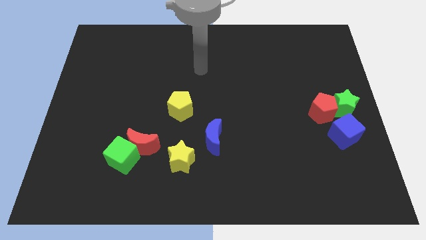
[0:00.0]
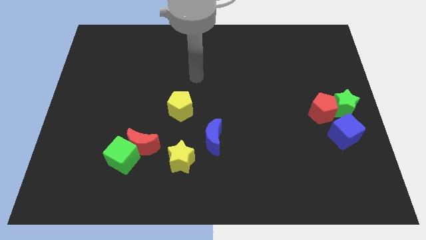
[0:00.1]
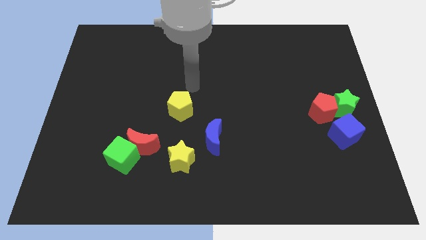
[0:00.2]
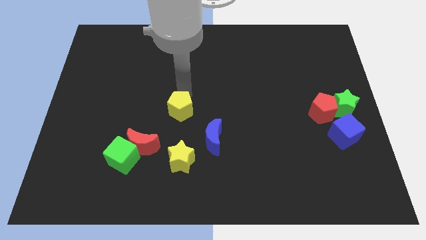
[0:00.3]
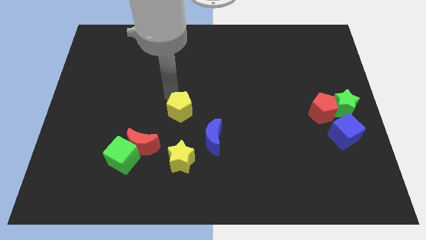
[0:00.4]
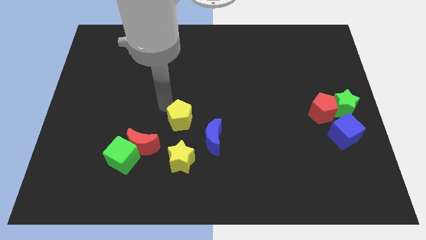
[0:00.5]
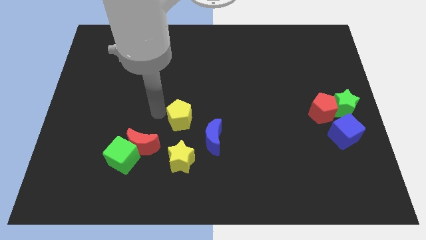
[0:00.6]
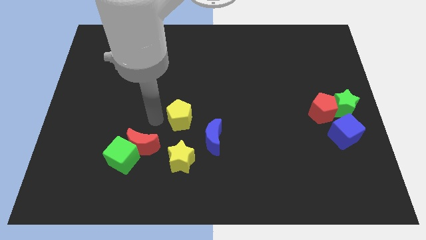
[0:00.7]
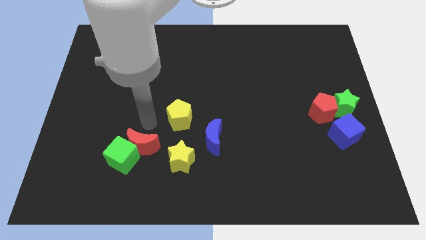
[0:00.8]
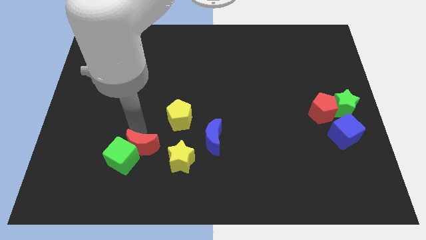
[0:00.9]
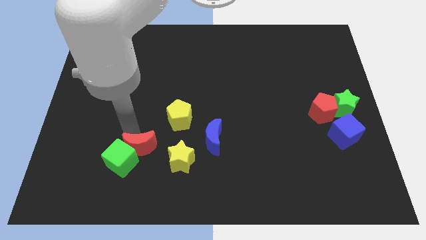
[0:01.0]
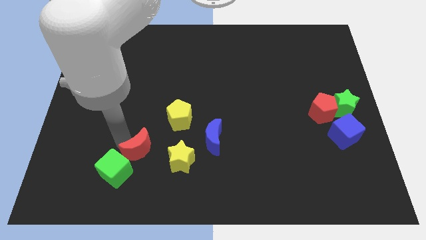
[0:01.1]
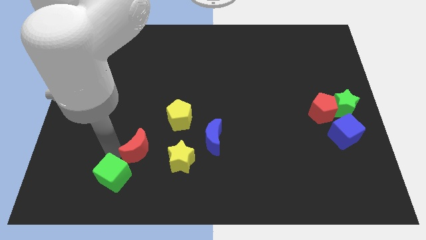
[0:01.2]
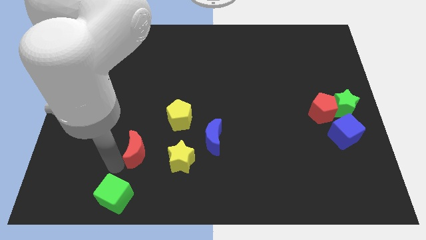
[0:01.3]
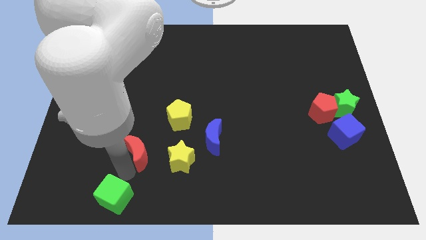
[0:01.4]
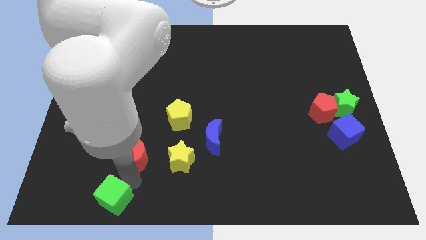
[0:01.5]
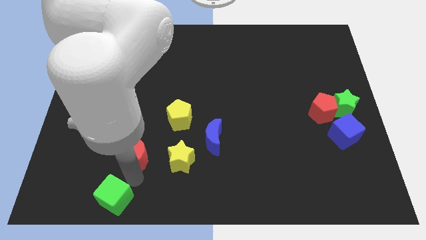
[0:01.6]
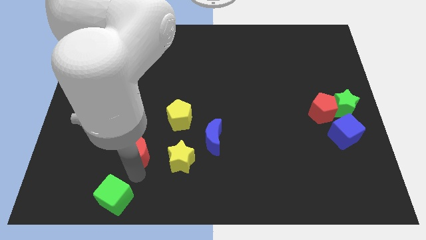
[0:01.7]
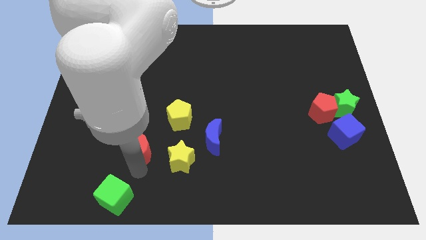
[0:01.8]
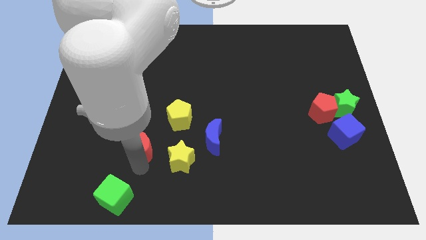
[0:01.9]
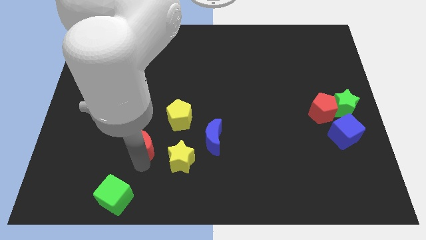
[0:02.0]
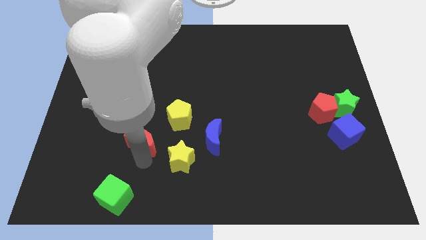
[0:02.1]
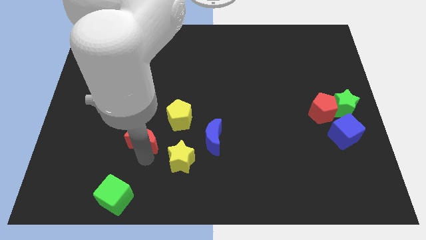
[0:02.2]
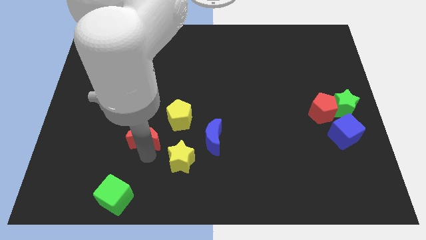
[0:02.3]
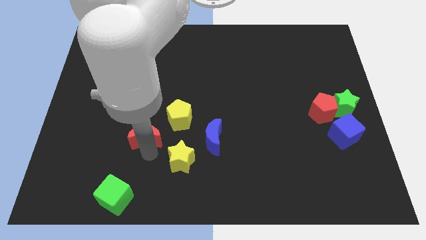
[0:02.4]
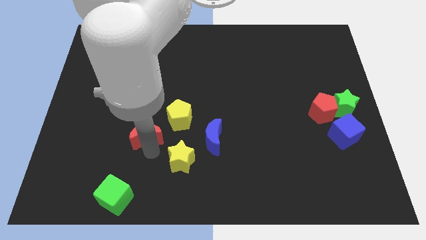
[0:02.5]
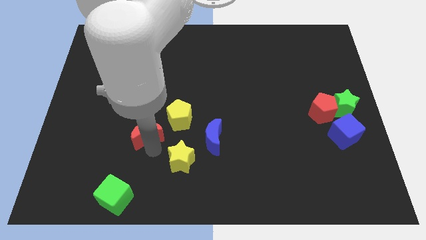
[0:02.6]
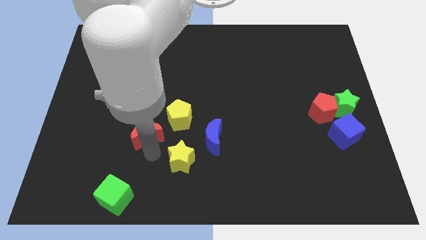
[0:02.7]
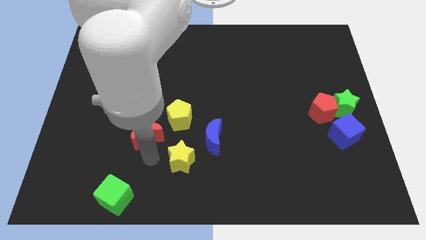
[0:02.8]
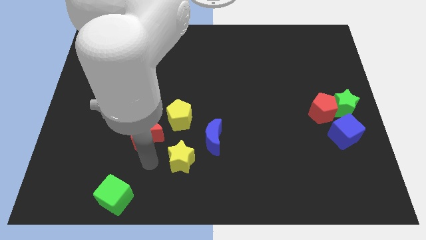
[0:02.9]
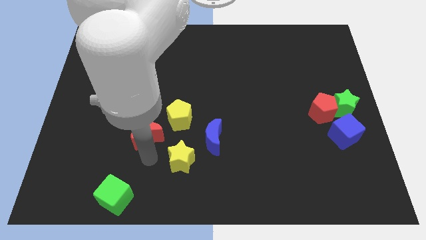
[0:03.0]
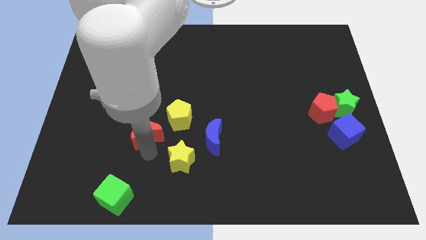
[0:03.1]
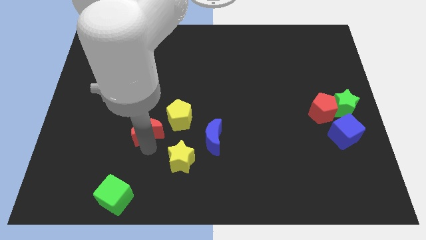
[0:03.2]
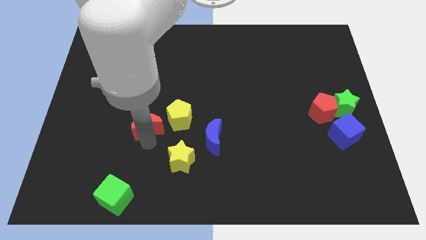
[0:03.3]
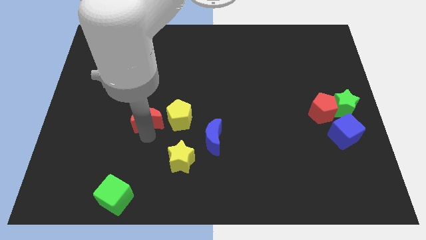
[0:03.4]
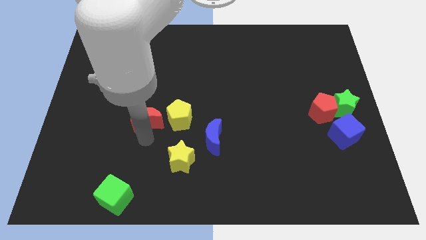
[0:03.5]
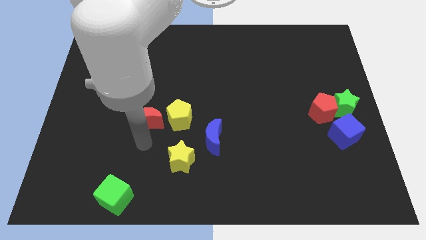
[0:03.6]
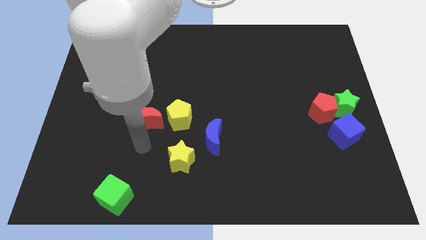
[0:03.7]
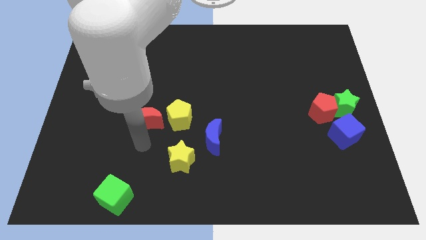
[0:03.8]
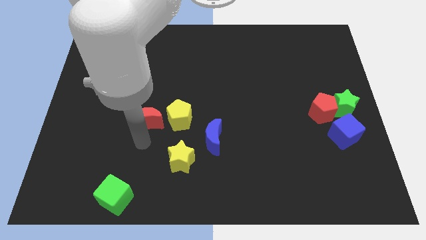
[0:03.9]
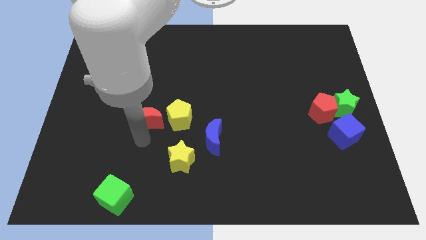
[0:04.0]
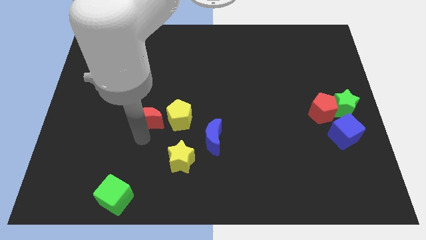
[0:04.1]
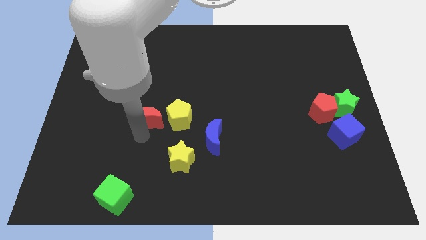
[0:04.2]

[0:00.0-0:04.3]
move the red moon a little bit upwards

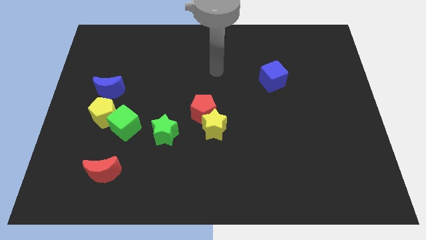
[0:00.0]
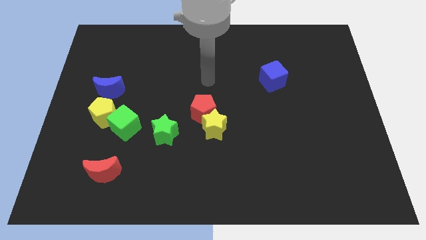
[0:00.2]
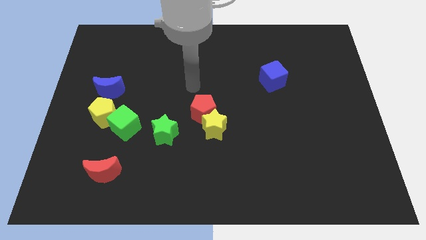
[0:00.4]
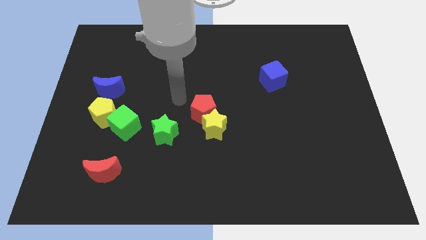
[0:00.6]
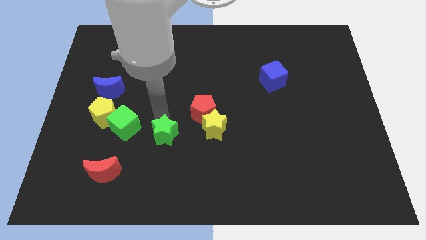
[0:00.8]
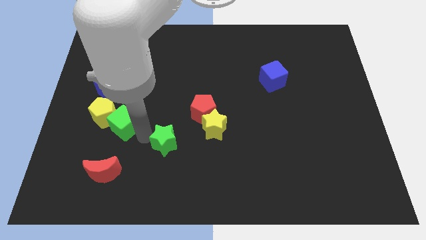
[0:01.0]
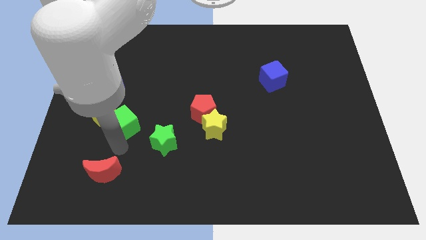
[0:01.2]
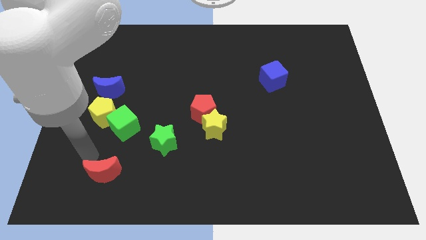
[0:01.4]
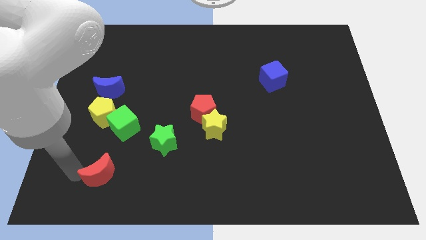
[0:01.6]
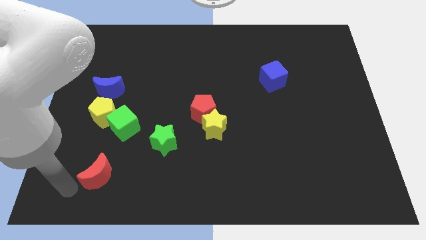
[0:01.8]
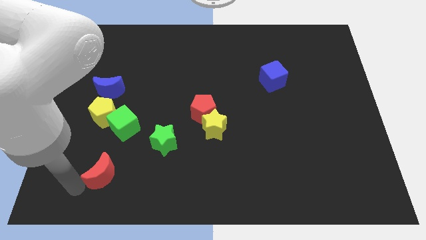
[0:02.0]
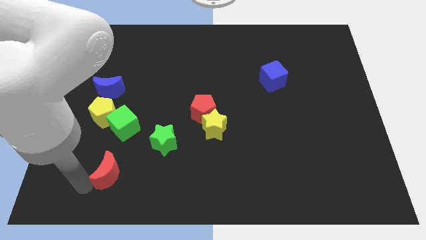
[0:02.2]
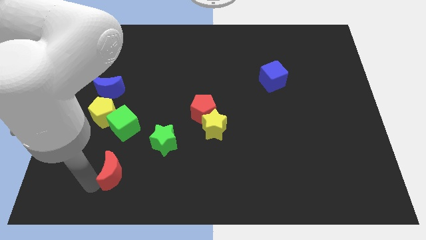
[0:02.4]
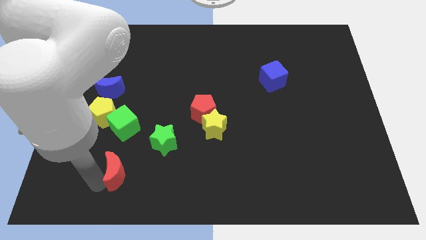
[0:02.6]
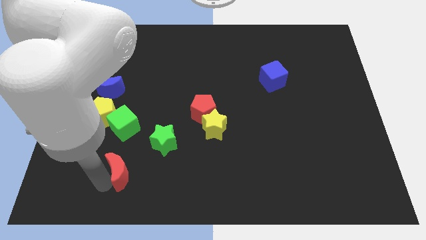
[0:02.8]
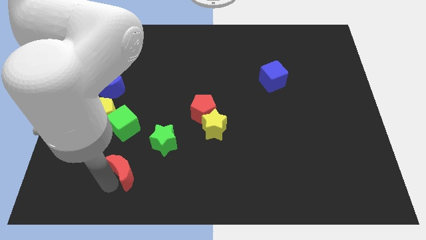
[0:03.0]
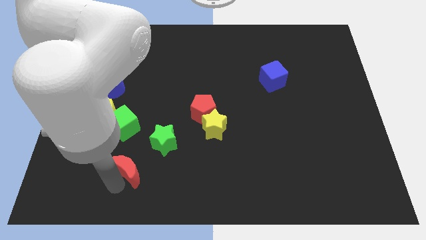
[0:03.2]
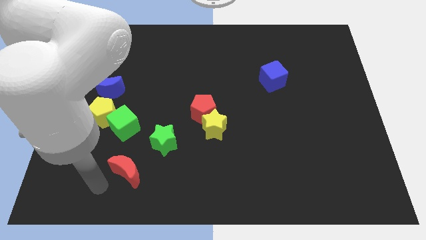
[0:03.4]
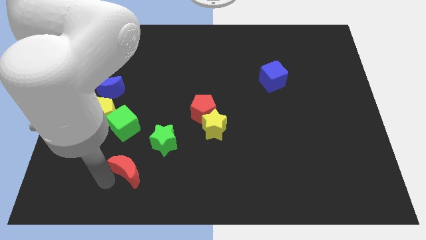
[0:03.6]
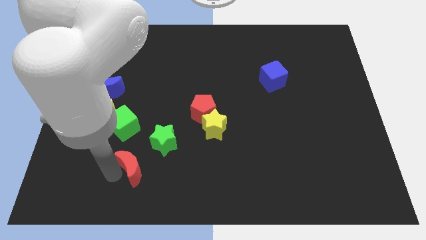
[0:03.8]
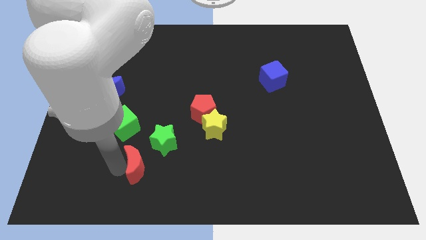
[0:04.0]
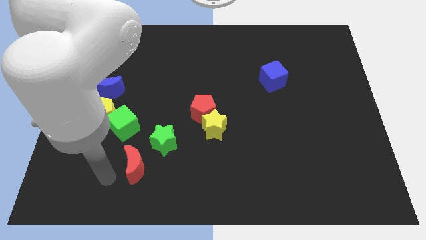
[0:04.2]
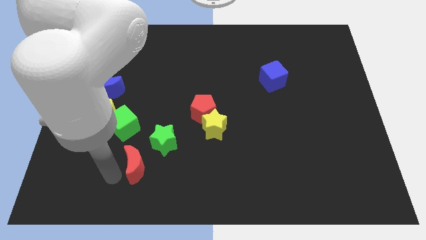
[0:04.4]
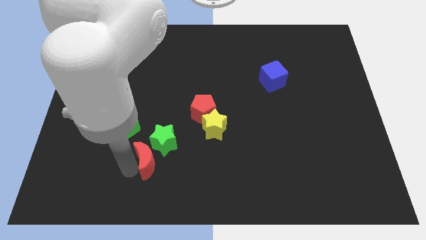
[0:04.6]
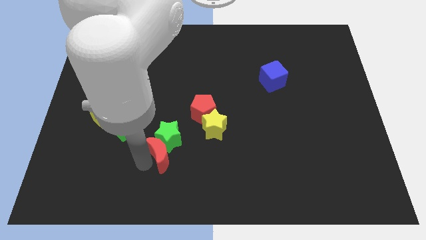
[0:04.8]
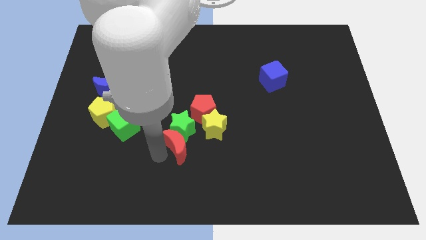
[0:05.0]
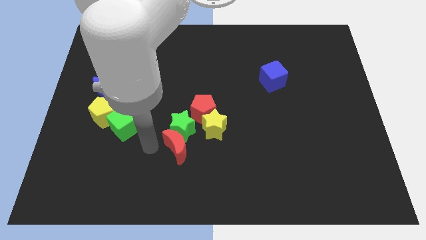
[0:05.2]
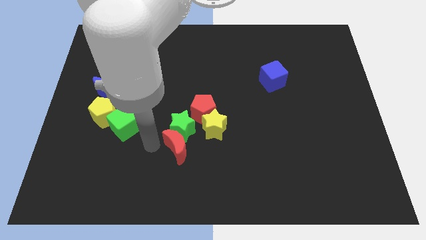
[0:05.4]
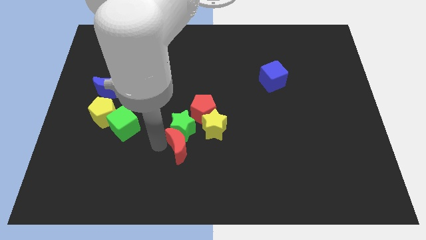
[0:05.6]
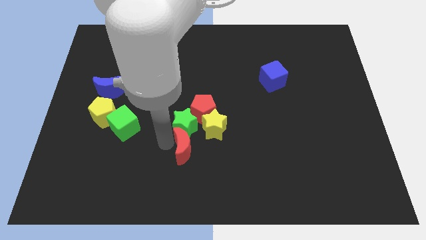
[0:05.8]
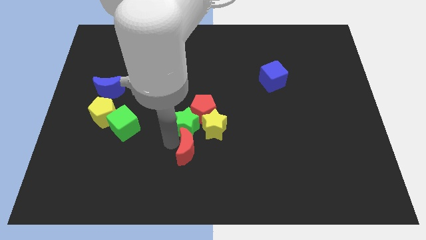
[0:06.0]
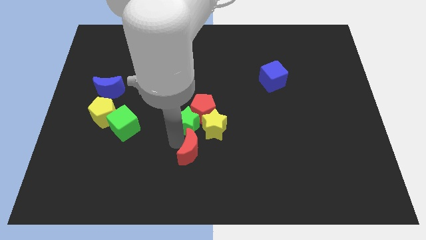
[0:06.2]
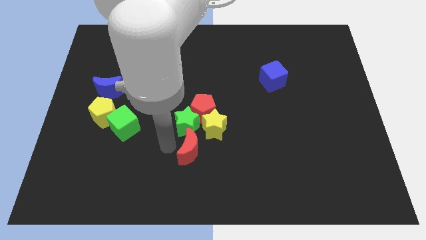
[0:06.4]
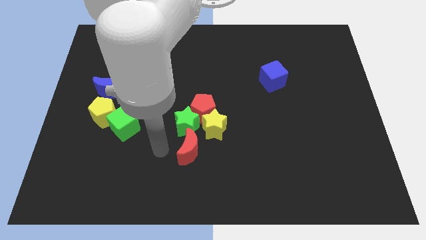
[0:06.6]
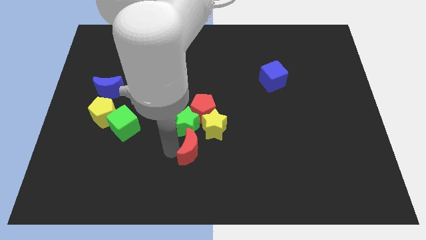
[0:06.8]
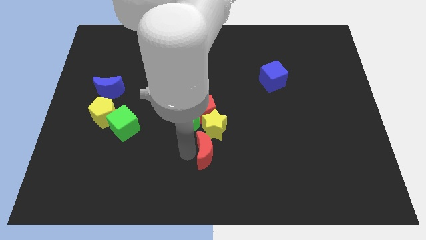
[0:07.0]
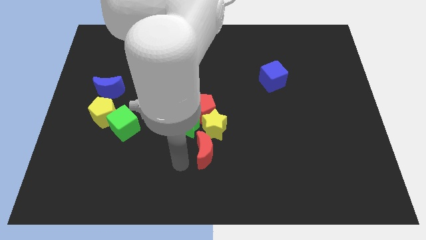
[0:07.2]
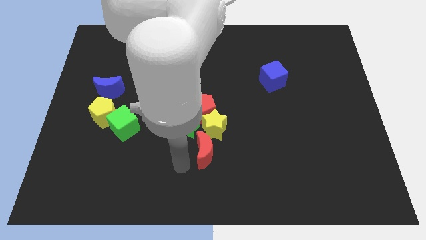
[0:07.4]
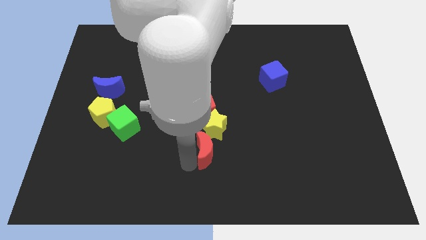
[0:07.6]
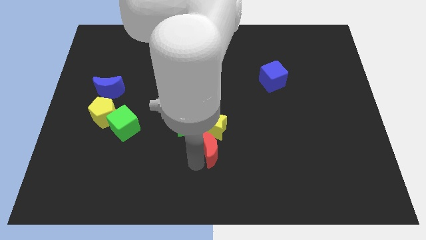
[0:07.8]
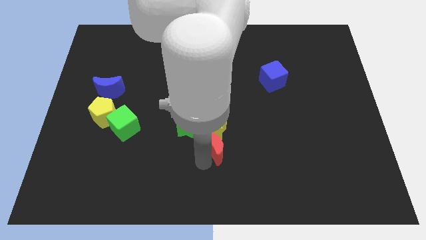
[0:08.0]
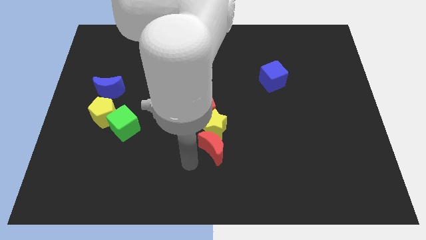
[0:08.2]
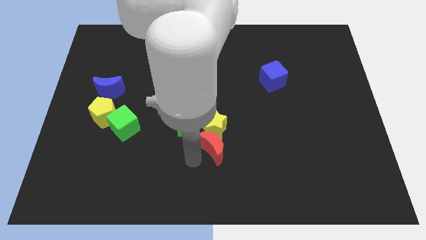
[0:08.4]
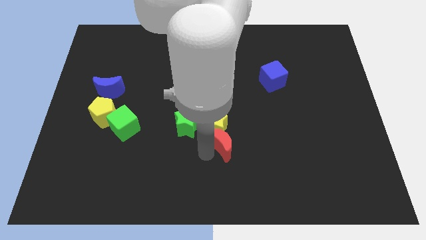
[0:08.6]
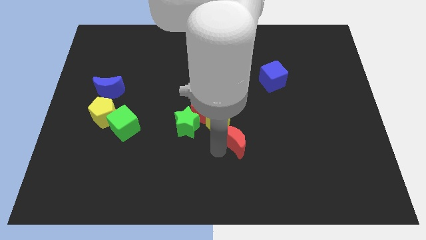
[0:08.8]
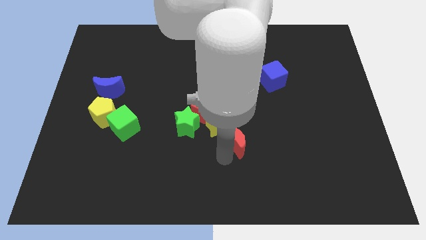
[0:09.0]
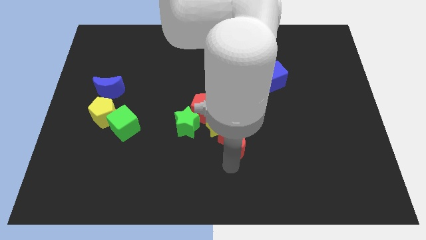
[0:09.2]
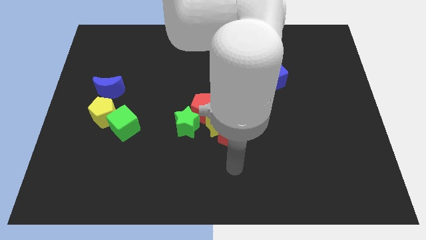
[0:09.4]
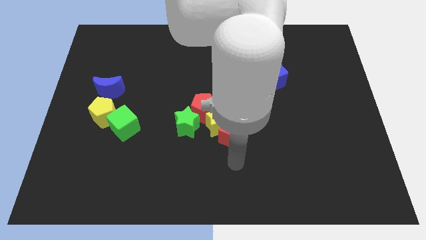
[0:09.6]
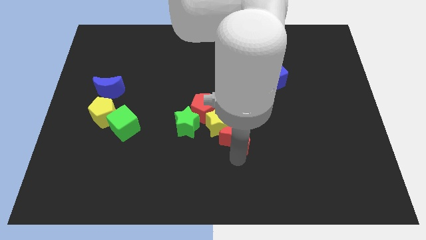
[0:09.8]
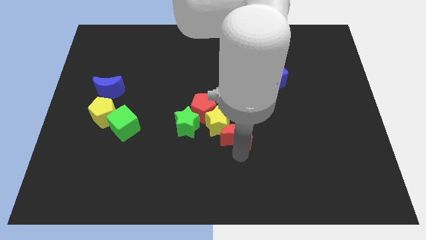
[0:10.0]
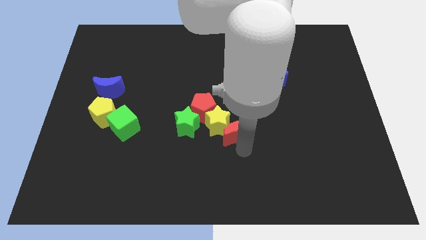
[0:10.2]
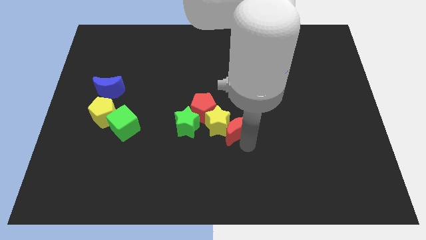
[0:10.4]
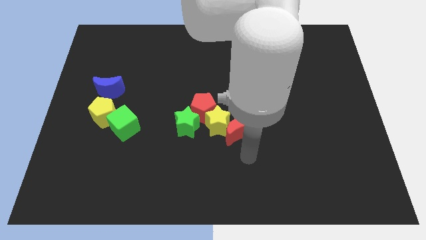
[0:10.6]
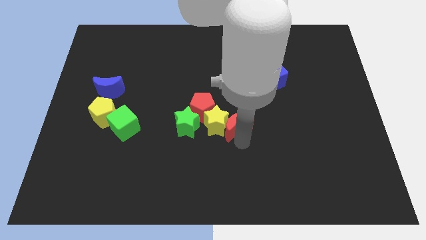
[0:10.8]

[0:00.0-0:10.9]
slide the red moon diagonally up and to the right
